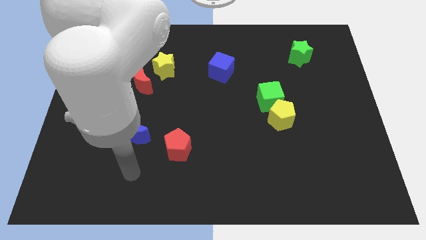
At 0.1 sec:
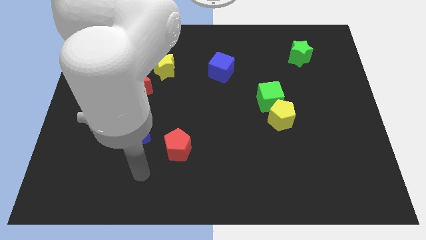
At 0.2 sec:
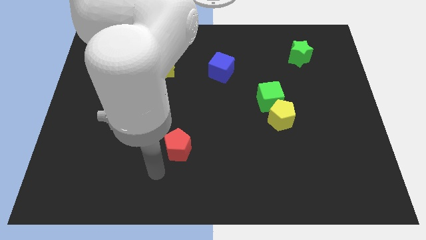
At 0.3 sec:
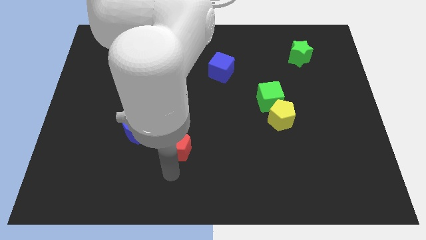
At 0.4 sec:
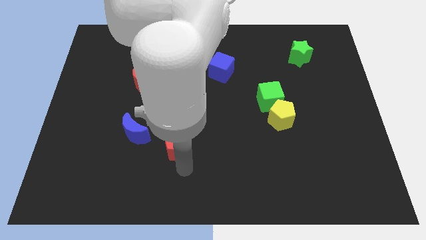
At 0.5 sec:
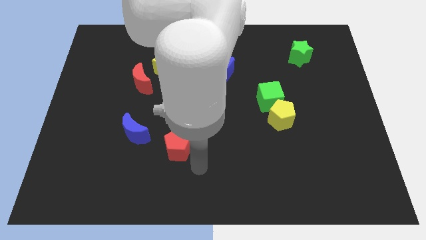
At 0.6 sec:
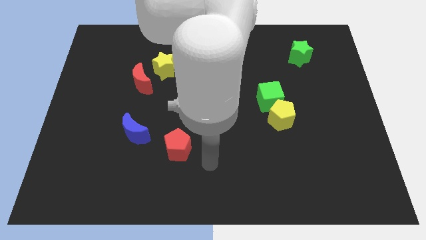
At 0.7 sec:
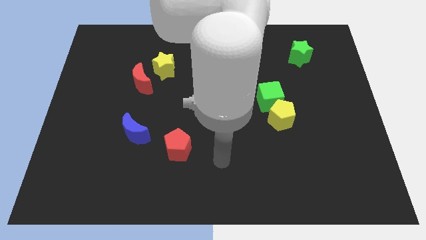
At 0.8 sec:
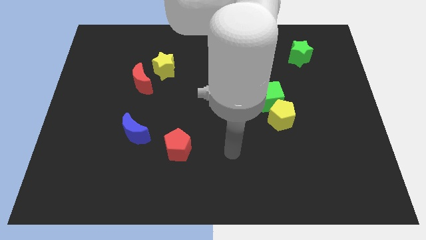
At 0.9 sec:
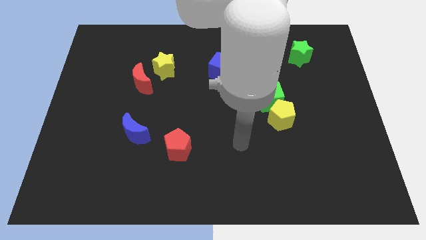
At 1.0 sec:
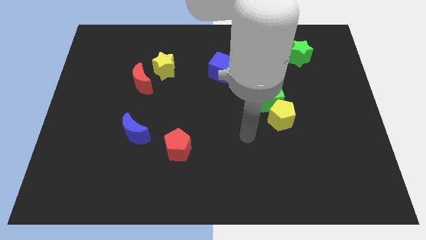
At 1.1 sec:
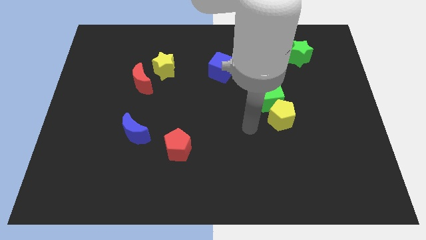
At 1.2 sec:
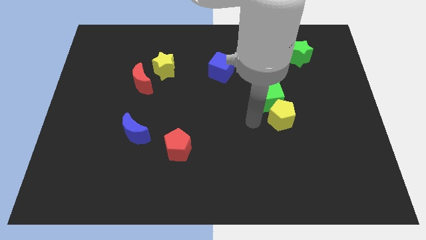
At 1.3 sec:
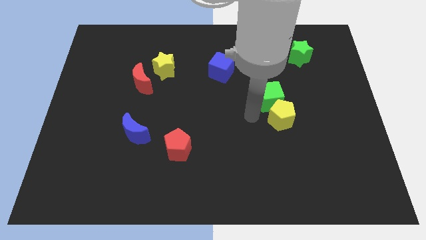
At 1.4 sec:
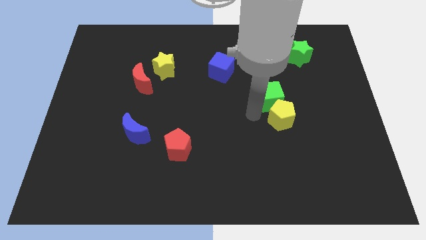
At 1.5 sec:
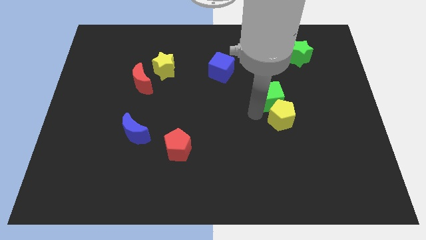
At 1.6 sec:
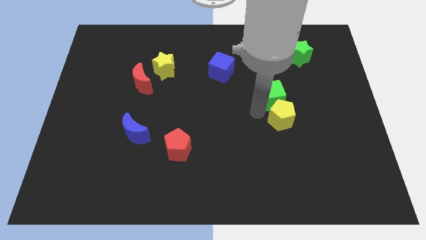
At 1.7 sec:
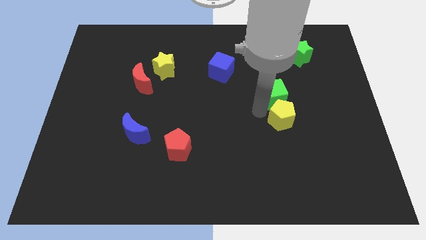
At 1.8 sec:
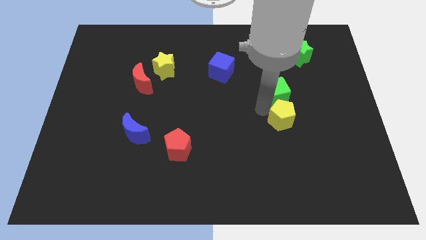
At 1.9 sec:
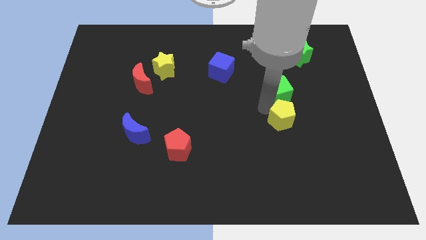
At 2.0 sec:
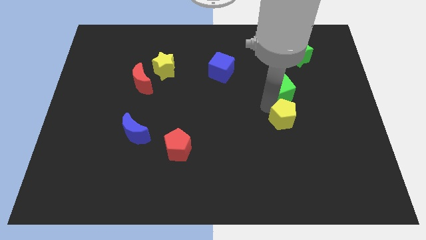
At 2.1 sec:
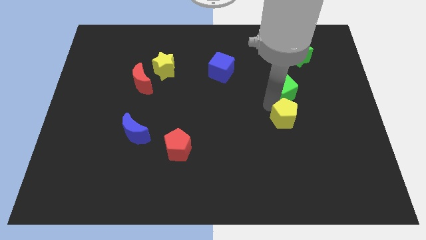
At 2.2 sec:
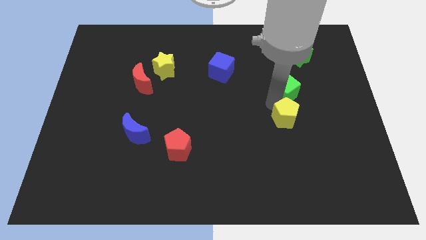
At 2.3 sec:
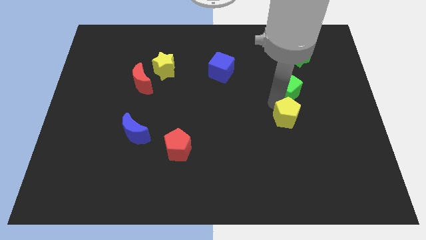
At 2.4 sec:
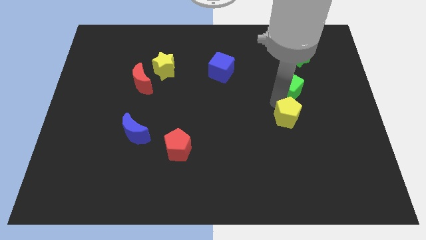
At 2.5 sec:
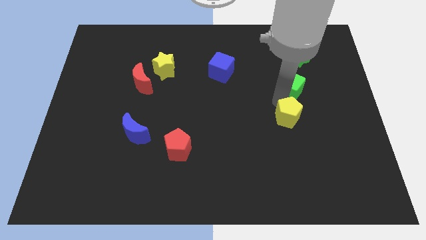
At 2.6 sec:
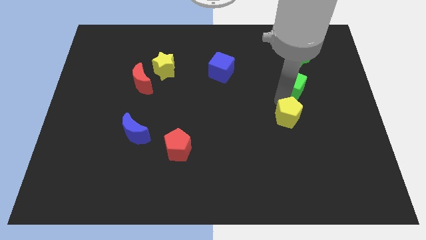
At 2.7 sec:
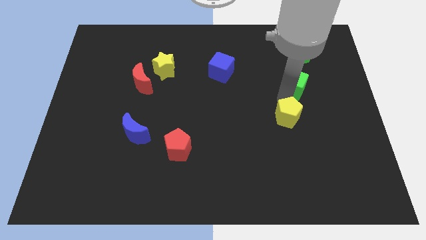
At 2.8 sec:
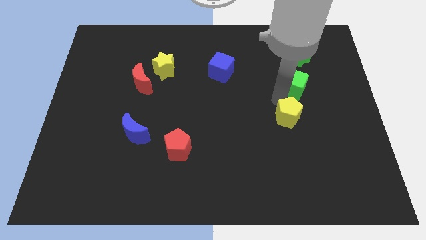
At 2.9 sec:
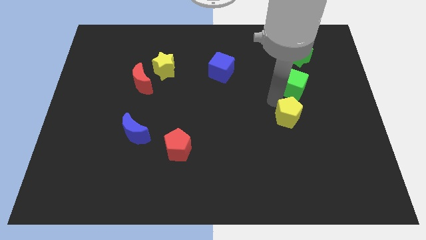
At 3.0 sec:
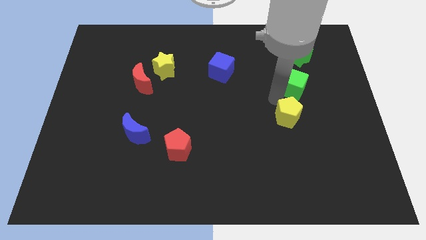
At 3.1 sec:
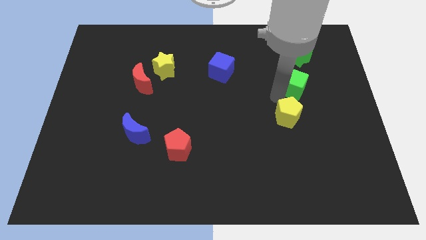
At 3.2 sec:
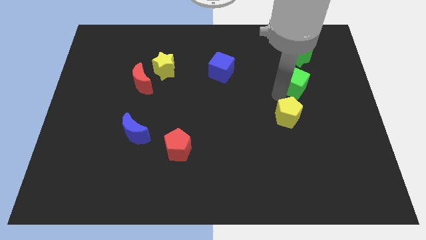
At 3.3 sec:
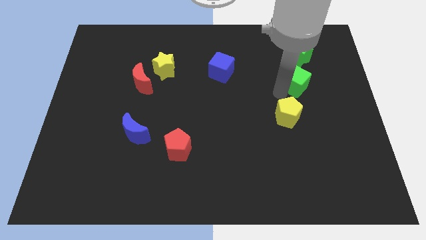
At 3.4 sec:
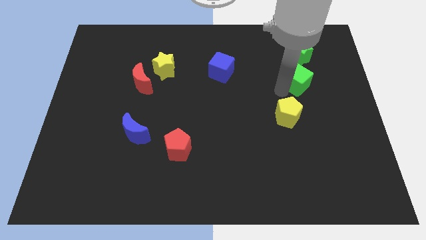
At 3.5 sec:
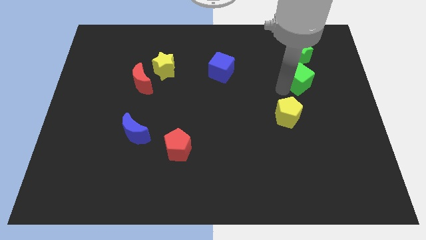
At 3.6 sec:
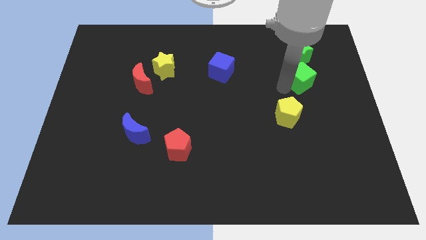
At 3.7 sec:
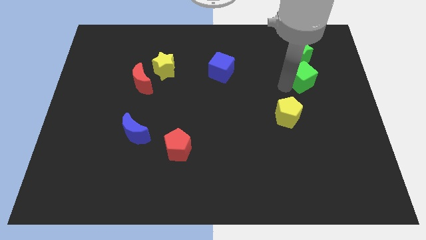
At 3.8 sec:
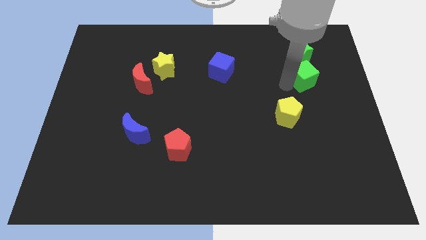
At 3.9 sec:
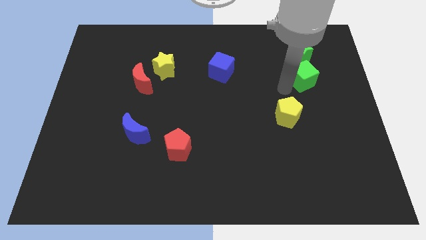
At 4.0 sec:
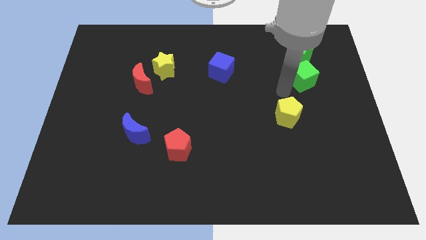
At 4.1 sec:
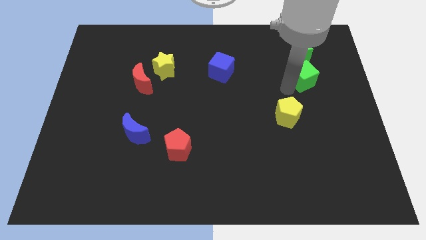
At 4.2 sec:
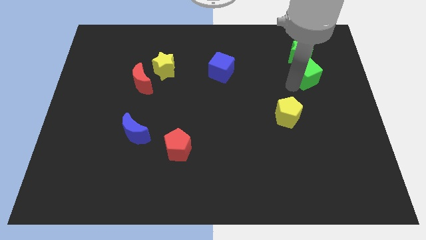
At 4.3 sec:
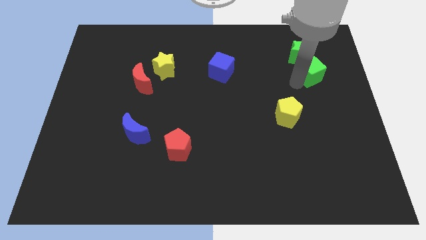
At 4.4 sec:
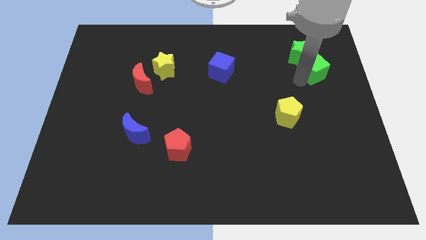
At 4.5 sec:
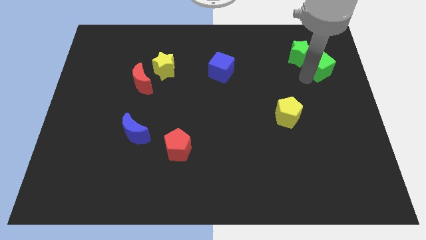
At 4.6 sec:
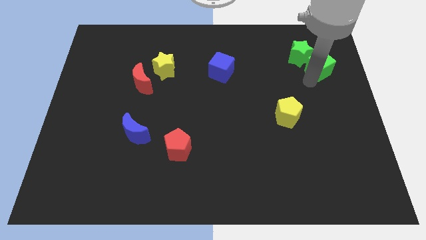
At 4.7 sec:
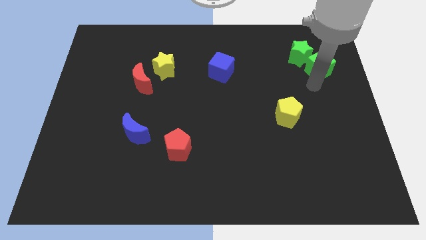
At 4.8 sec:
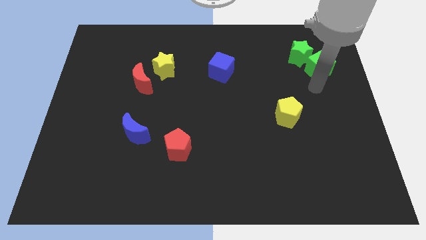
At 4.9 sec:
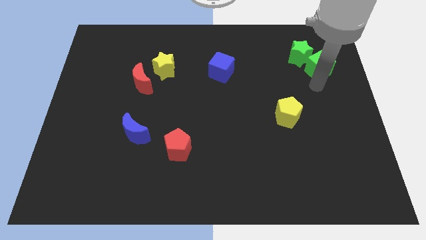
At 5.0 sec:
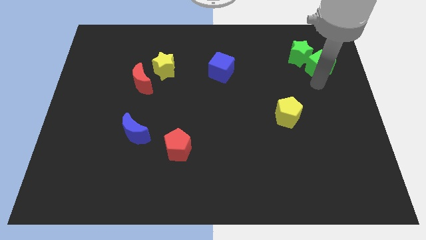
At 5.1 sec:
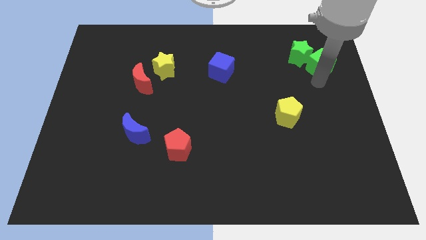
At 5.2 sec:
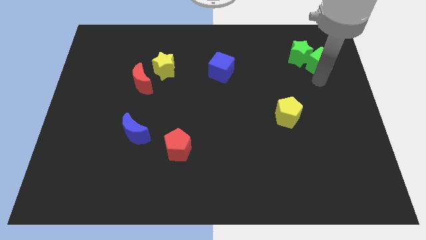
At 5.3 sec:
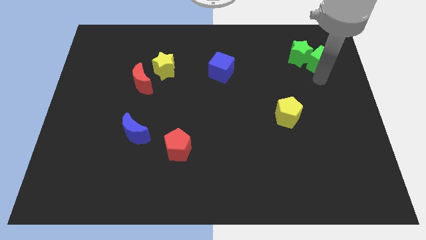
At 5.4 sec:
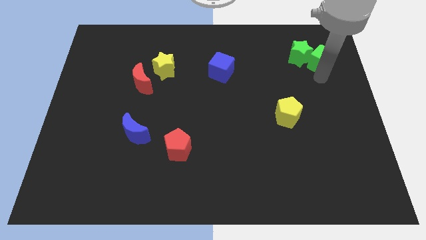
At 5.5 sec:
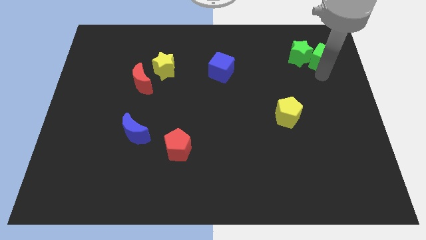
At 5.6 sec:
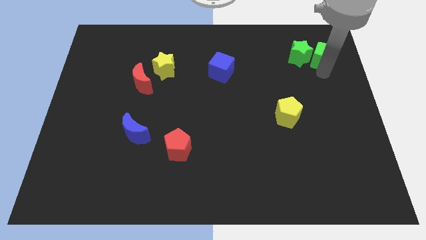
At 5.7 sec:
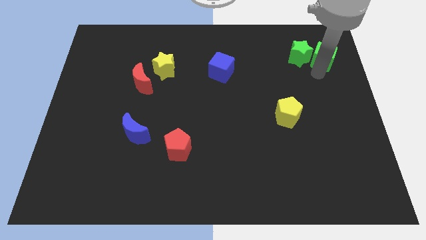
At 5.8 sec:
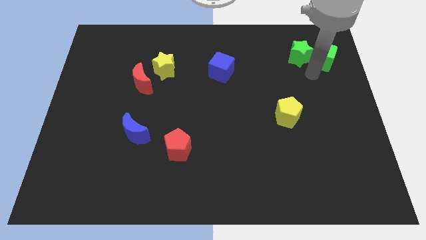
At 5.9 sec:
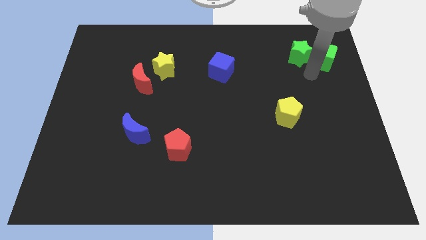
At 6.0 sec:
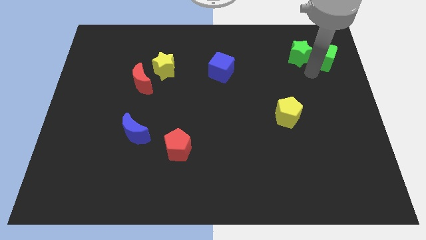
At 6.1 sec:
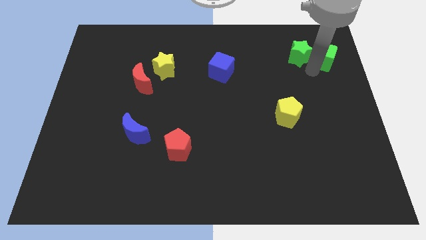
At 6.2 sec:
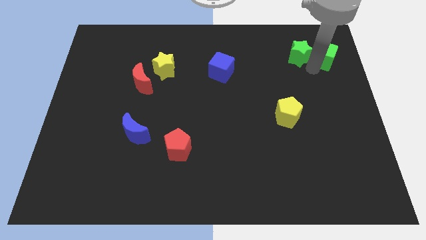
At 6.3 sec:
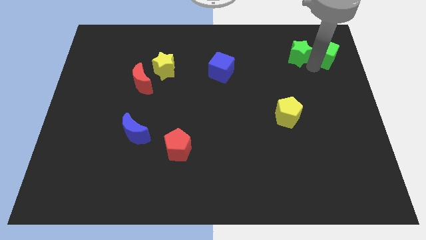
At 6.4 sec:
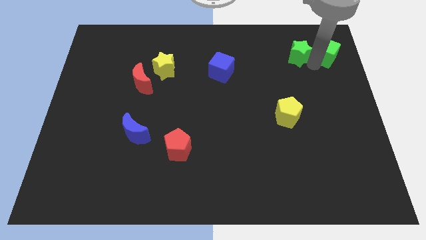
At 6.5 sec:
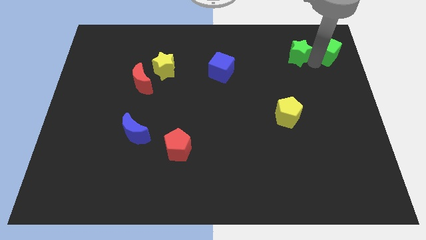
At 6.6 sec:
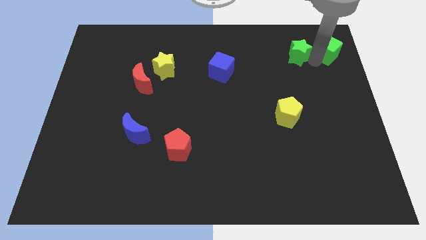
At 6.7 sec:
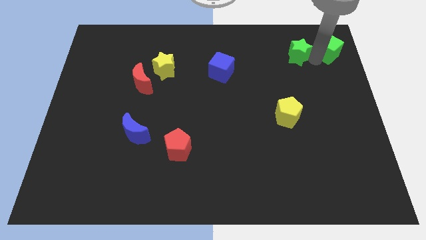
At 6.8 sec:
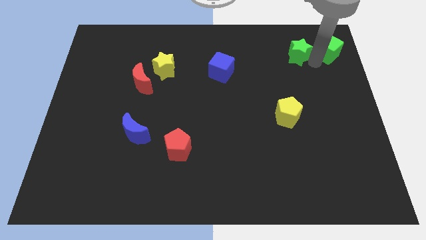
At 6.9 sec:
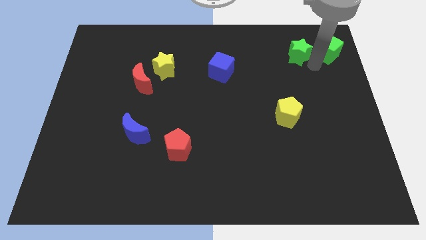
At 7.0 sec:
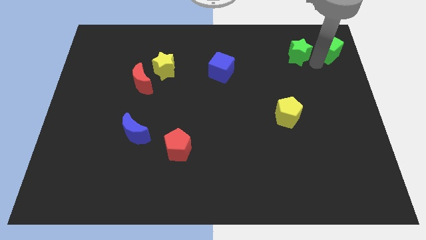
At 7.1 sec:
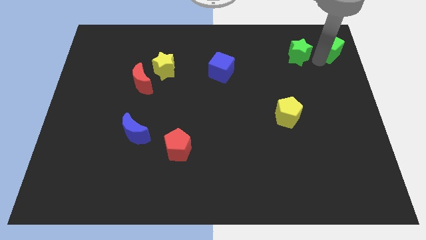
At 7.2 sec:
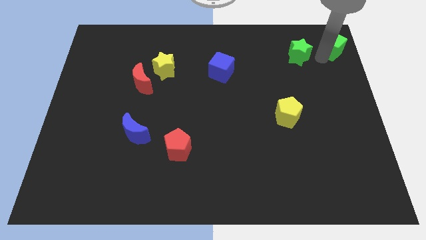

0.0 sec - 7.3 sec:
put the green cube to the top right of the board

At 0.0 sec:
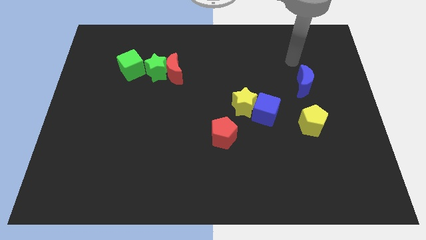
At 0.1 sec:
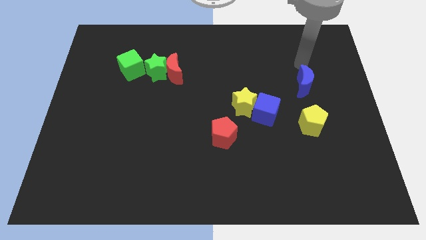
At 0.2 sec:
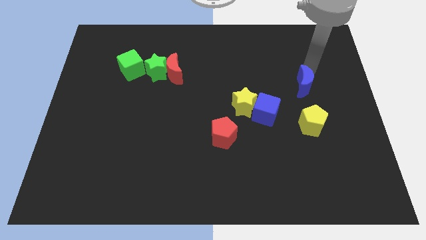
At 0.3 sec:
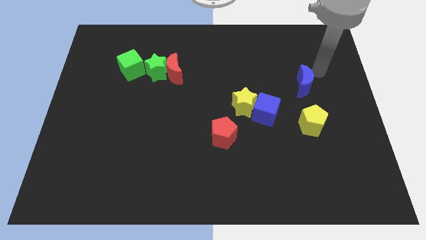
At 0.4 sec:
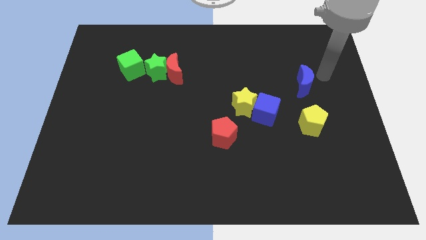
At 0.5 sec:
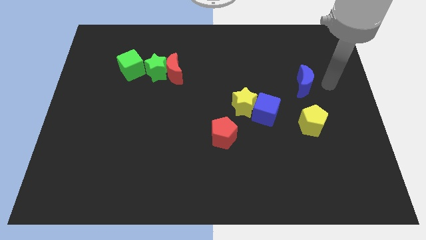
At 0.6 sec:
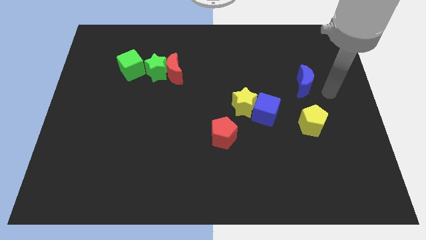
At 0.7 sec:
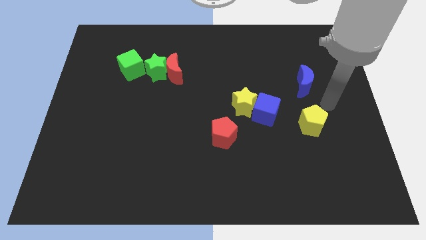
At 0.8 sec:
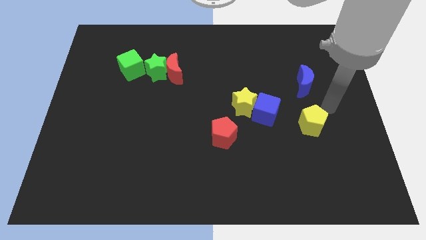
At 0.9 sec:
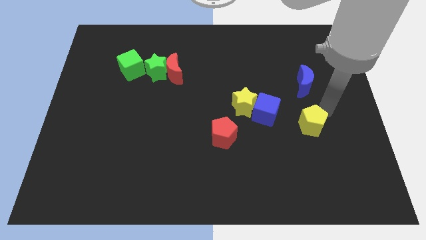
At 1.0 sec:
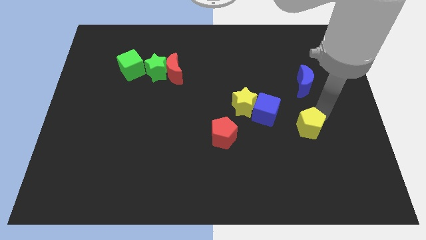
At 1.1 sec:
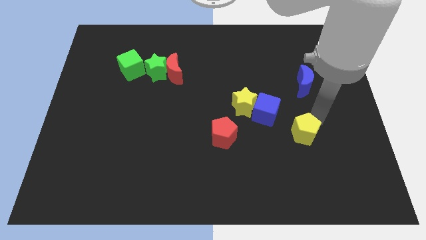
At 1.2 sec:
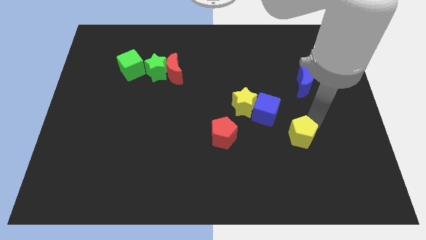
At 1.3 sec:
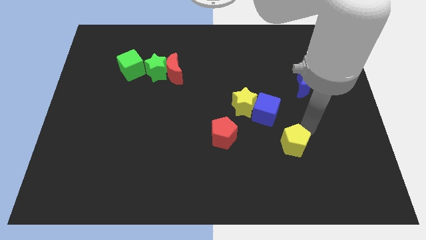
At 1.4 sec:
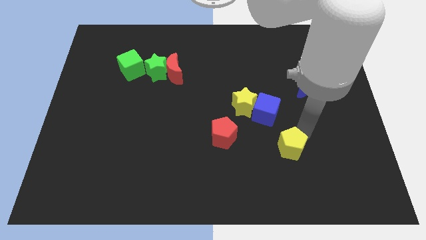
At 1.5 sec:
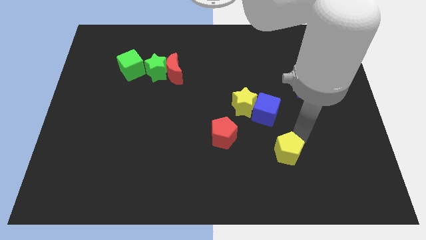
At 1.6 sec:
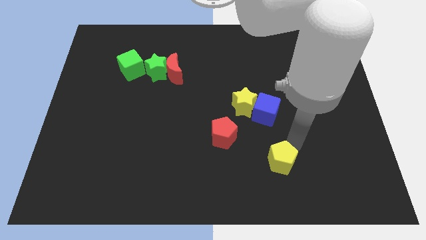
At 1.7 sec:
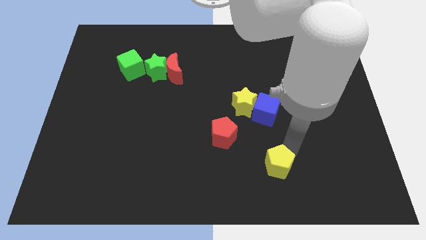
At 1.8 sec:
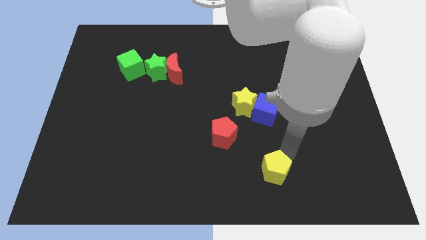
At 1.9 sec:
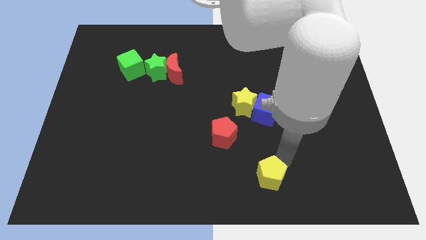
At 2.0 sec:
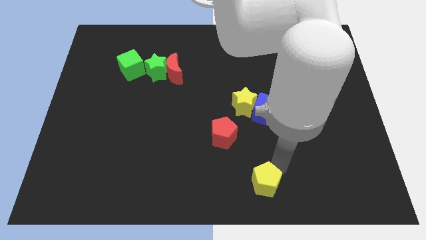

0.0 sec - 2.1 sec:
put the yellow pentagon to the bottom side
